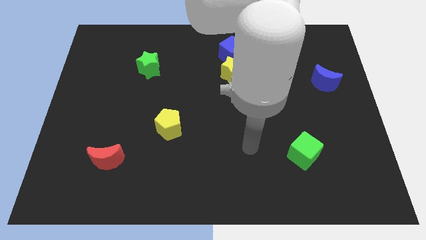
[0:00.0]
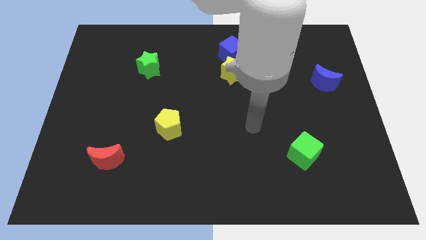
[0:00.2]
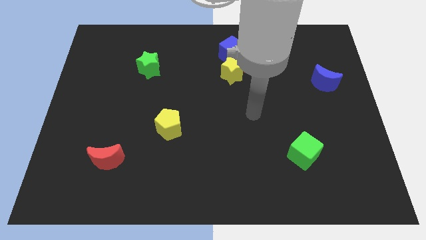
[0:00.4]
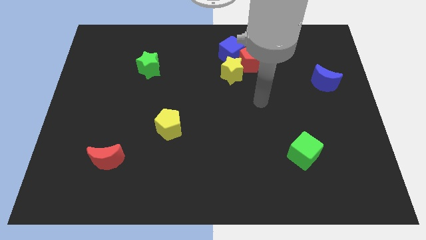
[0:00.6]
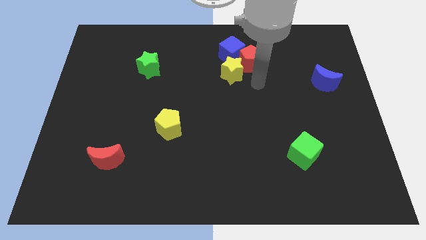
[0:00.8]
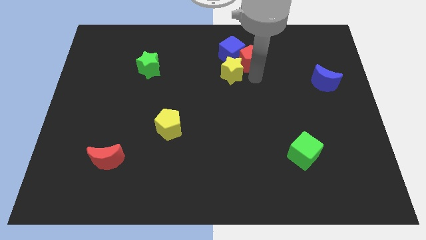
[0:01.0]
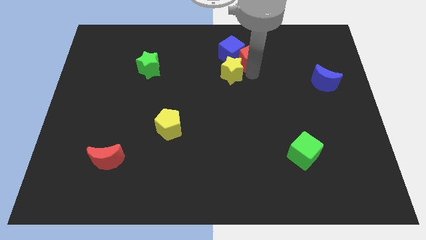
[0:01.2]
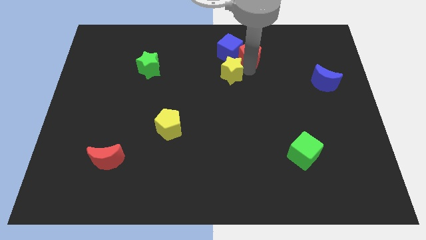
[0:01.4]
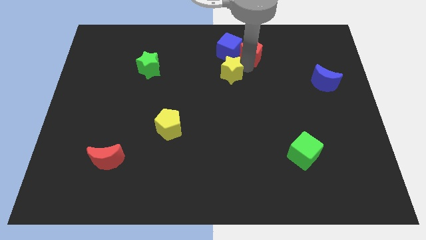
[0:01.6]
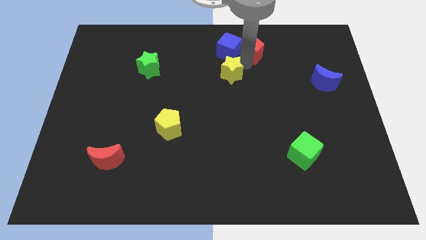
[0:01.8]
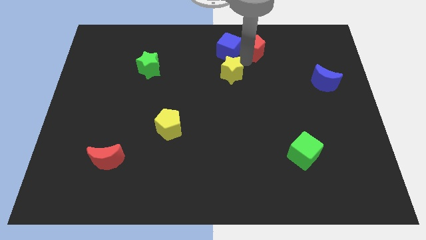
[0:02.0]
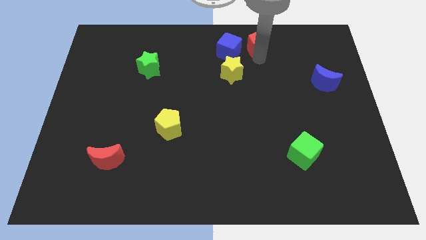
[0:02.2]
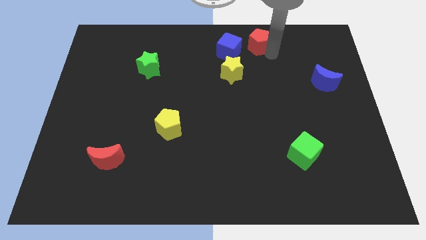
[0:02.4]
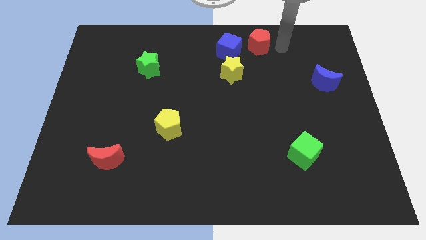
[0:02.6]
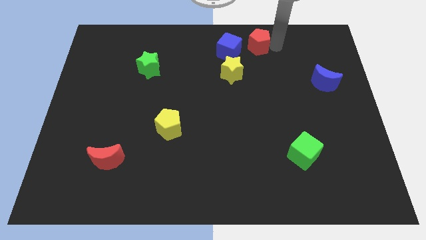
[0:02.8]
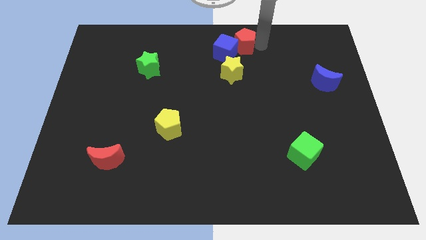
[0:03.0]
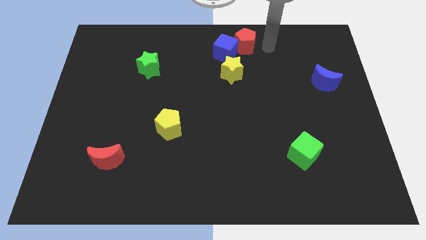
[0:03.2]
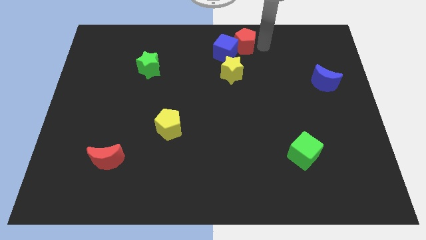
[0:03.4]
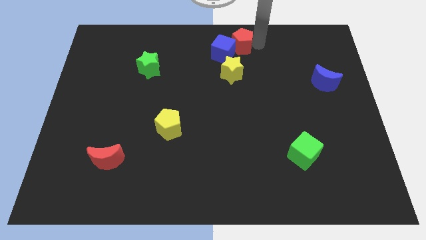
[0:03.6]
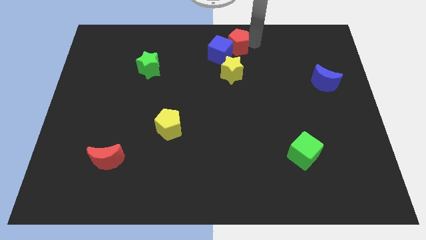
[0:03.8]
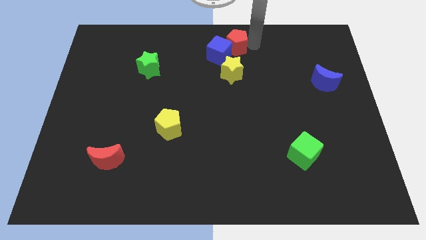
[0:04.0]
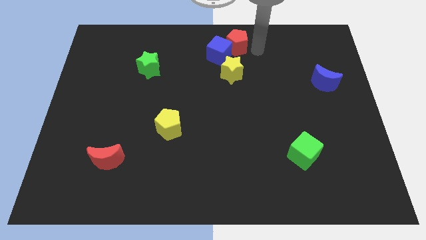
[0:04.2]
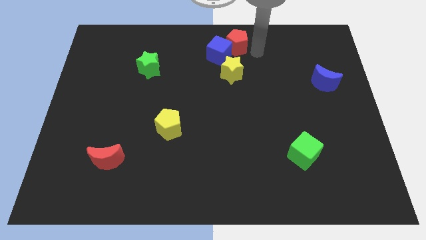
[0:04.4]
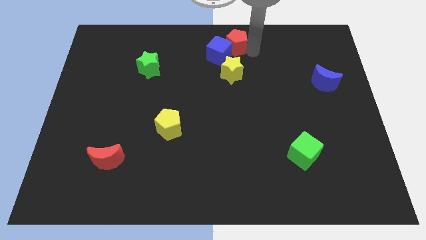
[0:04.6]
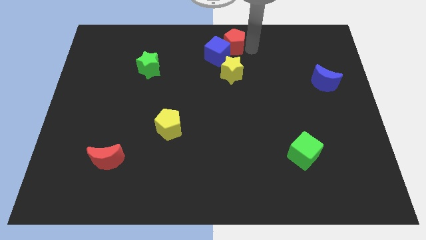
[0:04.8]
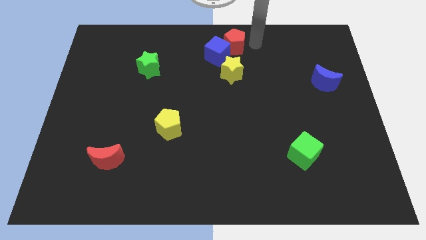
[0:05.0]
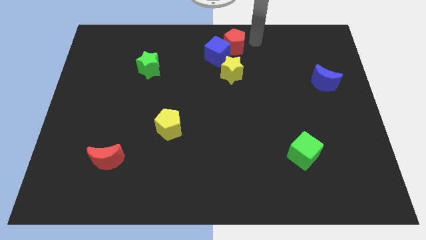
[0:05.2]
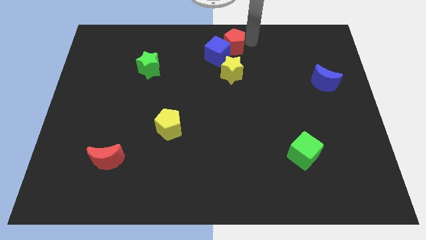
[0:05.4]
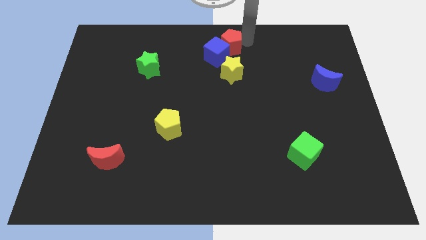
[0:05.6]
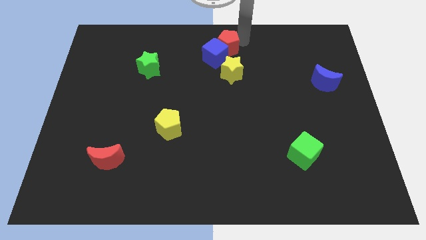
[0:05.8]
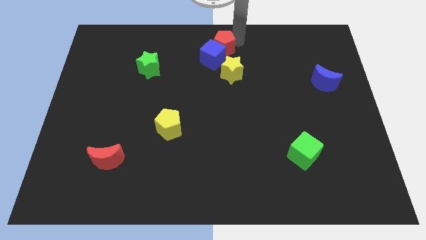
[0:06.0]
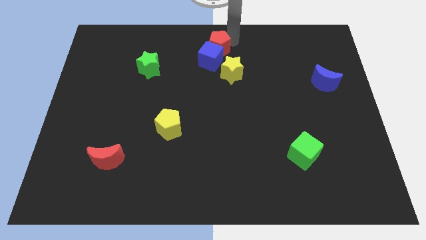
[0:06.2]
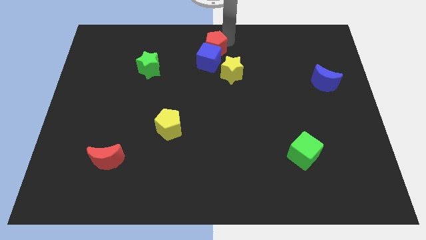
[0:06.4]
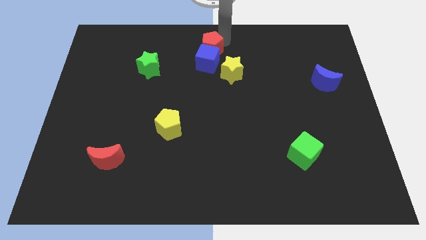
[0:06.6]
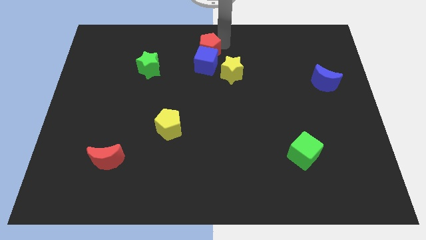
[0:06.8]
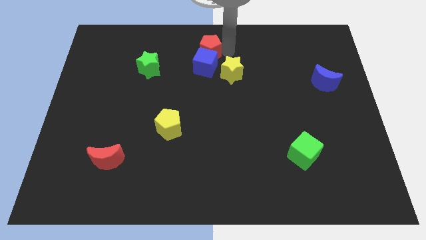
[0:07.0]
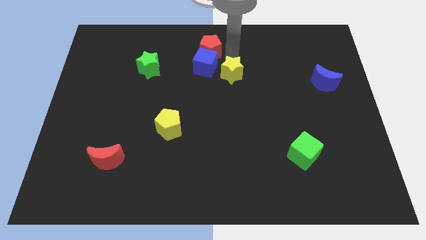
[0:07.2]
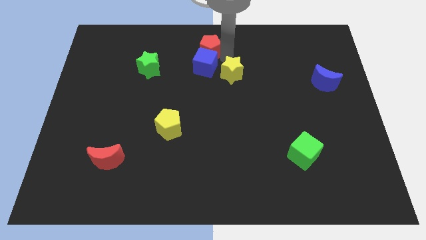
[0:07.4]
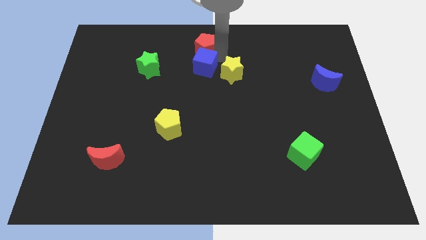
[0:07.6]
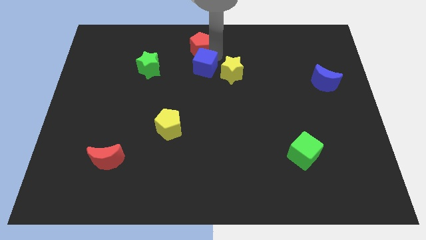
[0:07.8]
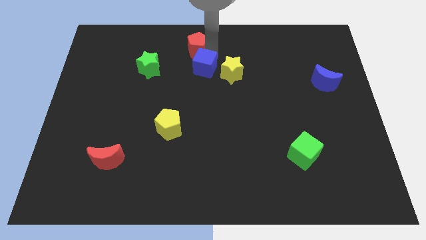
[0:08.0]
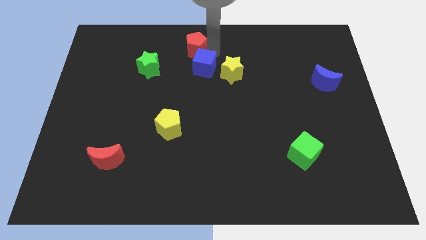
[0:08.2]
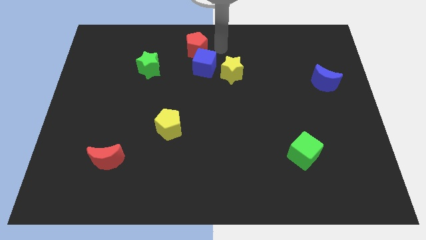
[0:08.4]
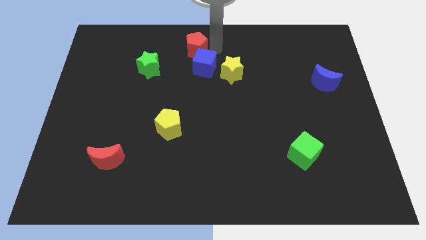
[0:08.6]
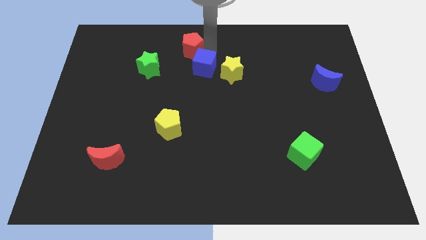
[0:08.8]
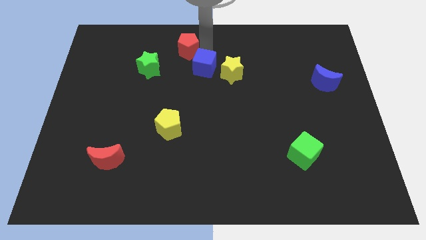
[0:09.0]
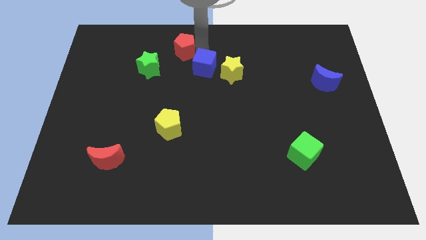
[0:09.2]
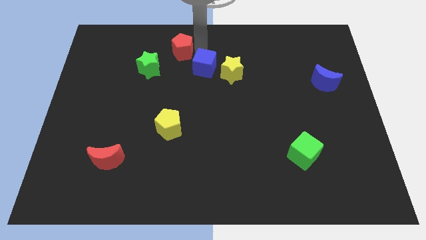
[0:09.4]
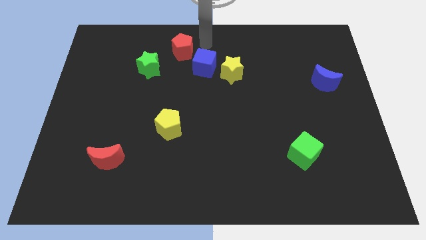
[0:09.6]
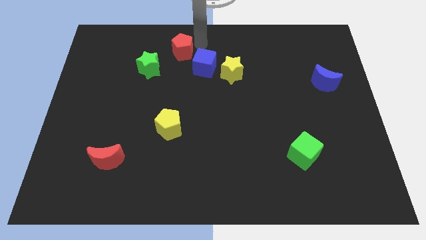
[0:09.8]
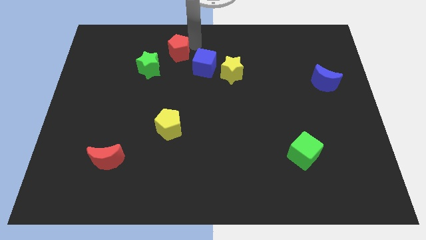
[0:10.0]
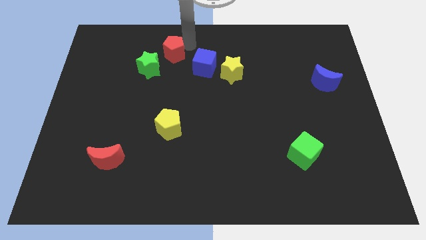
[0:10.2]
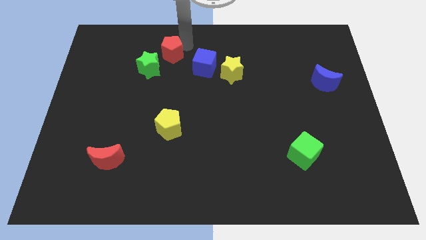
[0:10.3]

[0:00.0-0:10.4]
push the red pentagon left

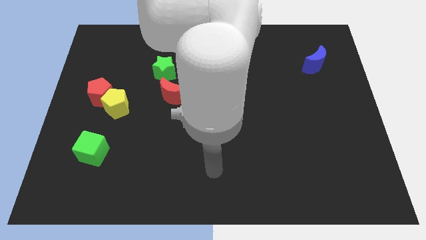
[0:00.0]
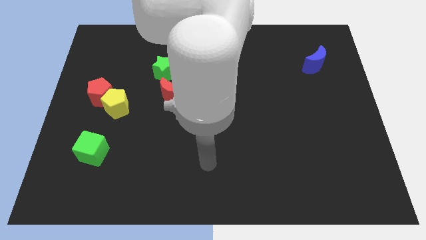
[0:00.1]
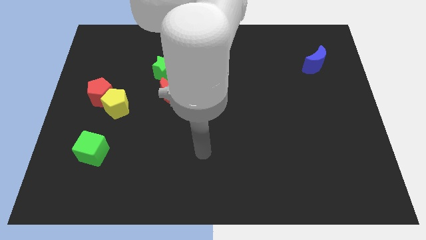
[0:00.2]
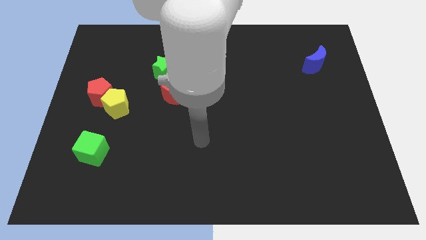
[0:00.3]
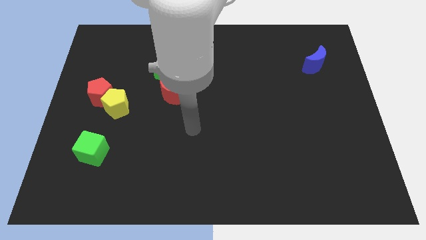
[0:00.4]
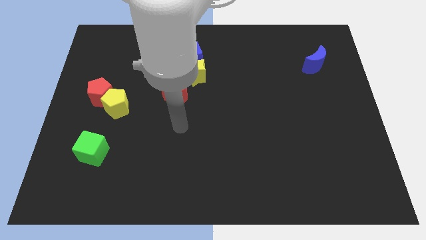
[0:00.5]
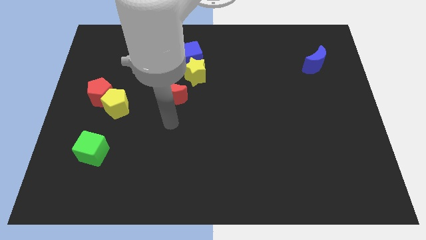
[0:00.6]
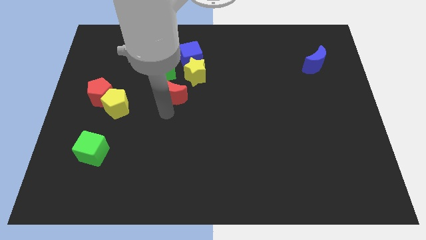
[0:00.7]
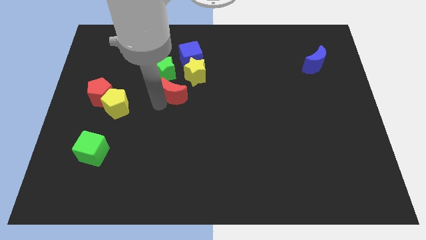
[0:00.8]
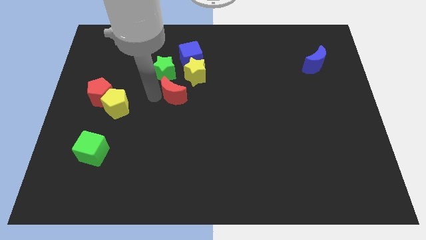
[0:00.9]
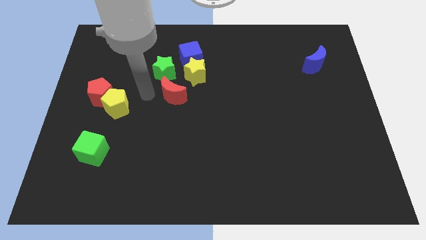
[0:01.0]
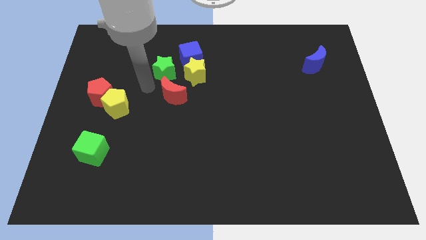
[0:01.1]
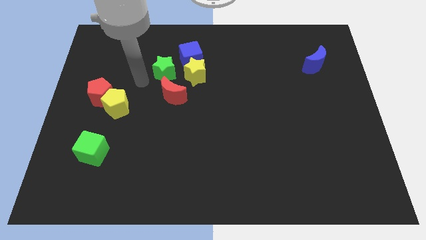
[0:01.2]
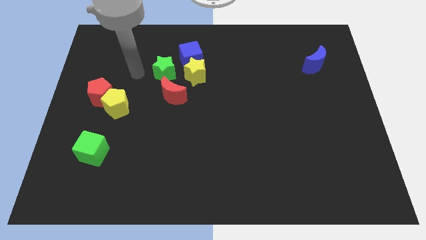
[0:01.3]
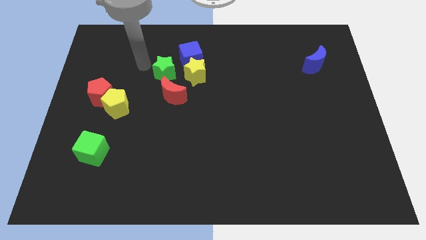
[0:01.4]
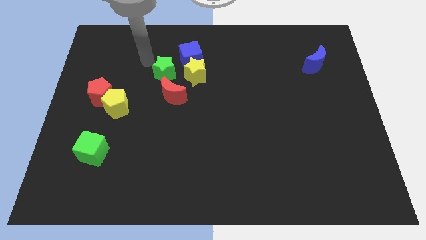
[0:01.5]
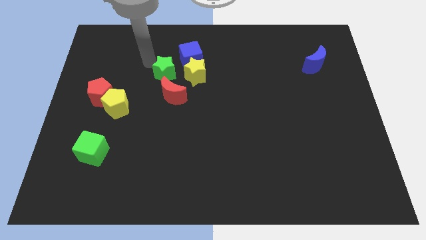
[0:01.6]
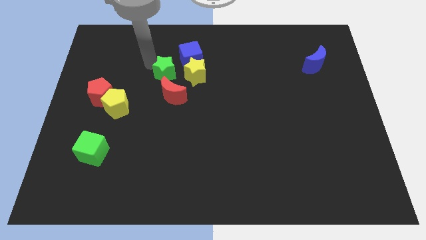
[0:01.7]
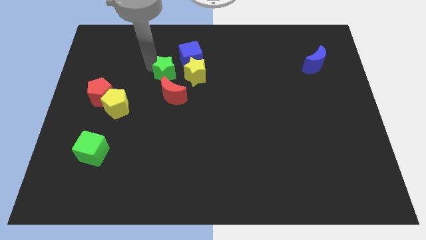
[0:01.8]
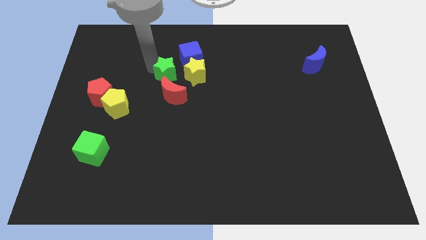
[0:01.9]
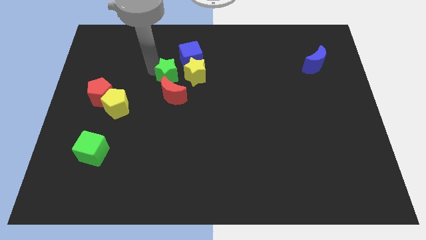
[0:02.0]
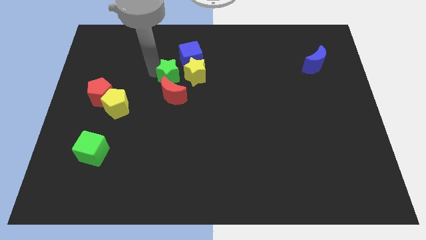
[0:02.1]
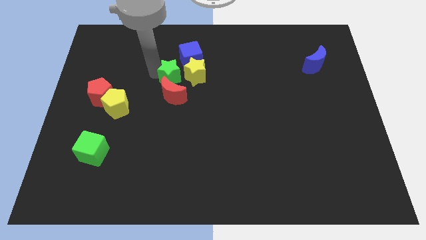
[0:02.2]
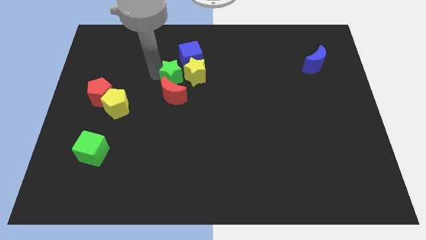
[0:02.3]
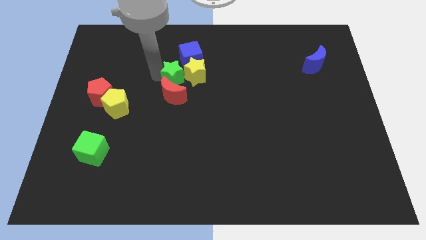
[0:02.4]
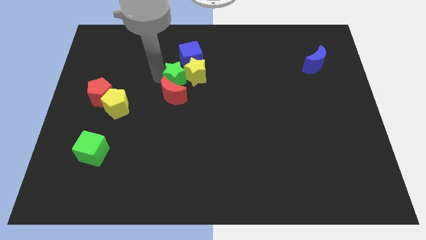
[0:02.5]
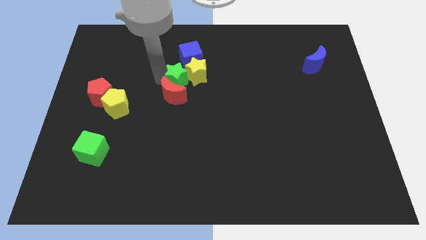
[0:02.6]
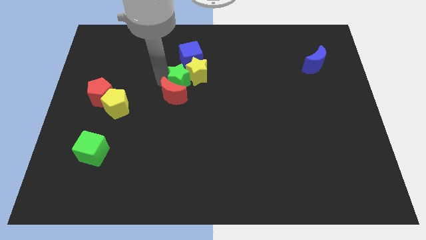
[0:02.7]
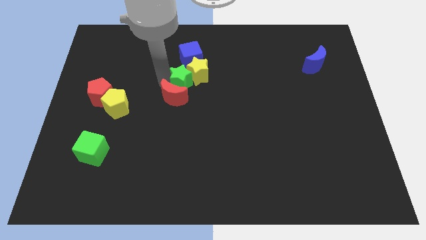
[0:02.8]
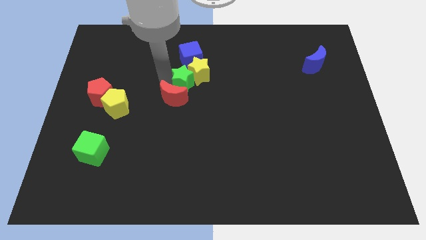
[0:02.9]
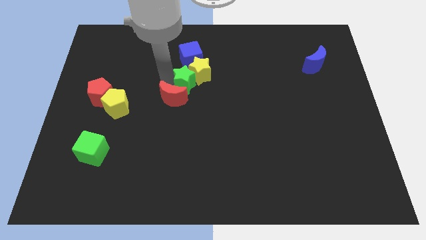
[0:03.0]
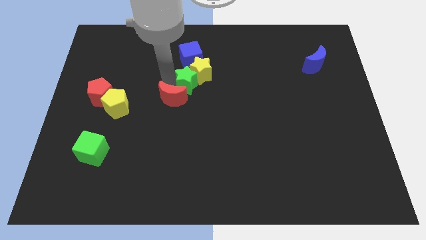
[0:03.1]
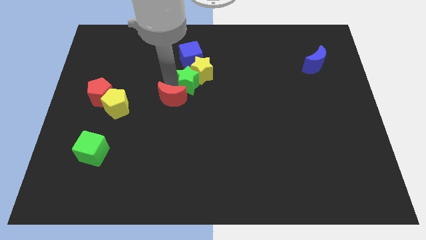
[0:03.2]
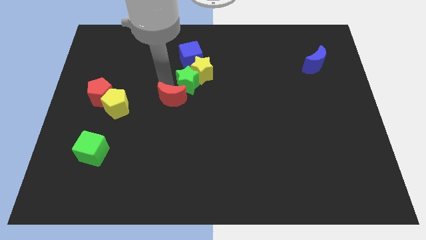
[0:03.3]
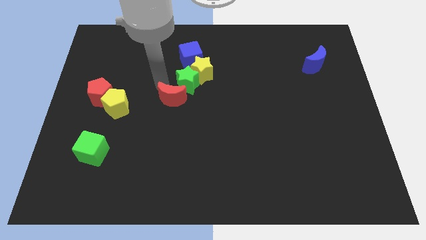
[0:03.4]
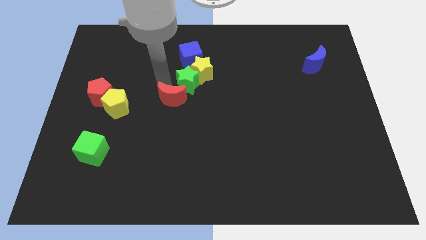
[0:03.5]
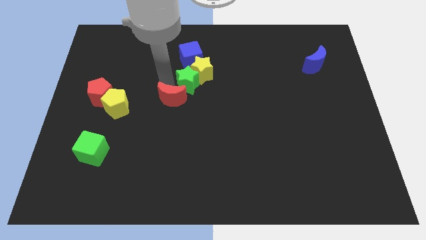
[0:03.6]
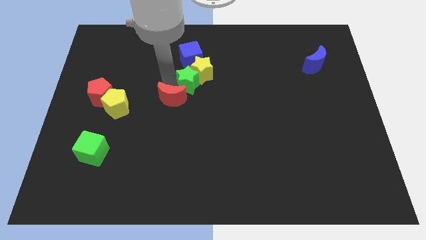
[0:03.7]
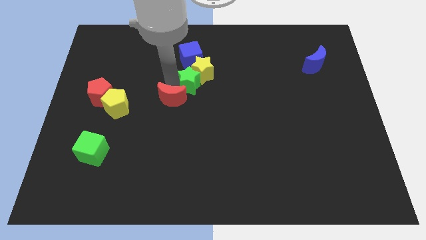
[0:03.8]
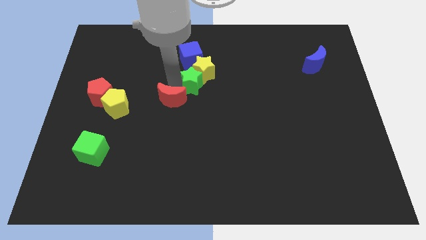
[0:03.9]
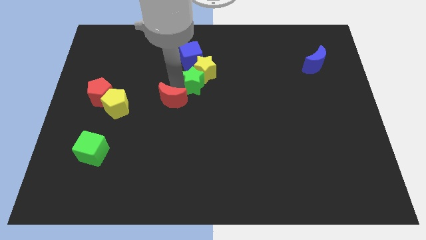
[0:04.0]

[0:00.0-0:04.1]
slightly slide the green star to the right
